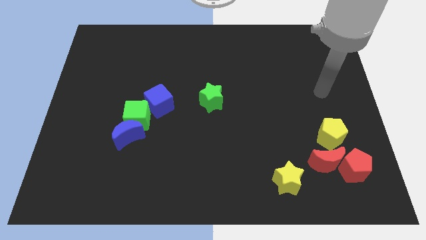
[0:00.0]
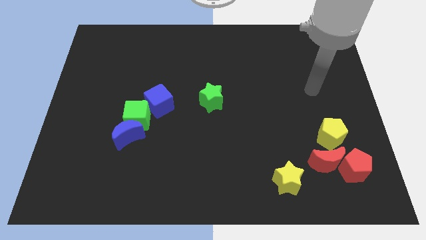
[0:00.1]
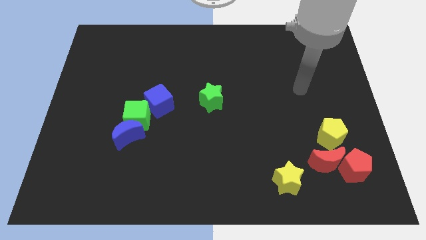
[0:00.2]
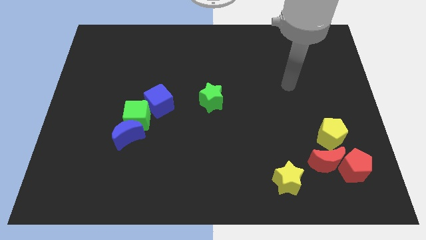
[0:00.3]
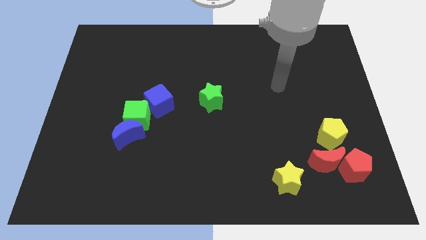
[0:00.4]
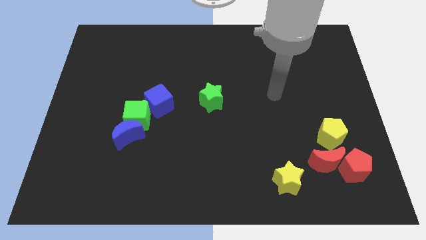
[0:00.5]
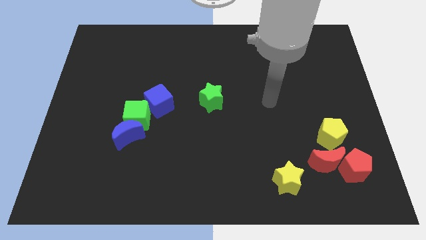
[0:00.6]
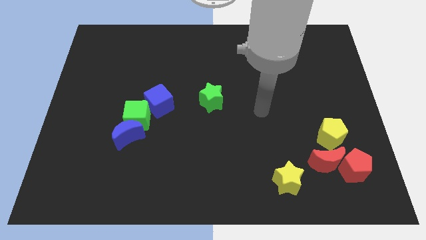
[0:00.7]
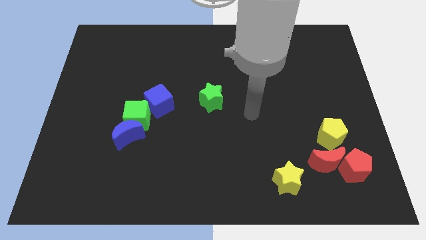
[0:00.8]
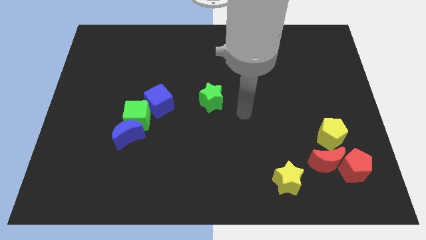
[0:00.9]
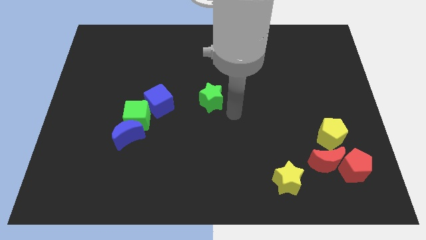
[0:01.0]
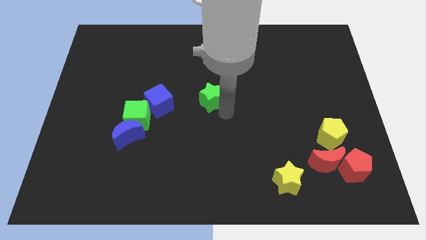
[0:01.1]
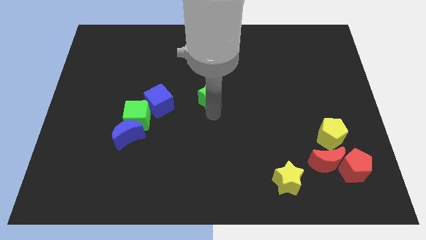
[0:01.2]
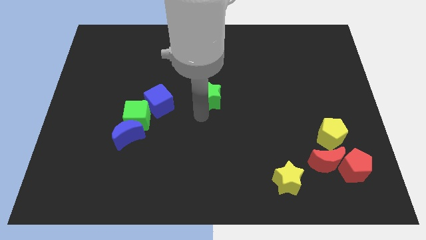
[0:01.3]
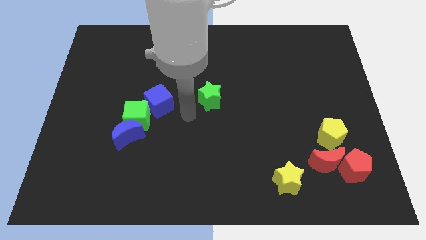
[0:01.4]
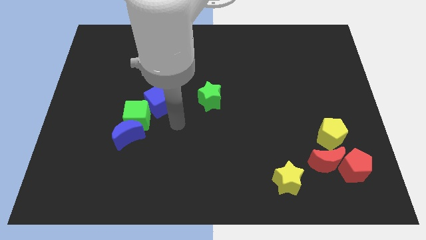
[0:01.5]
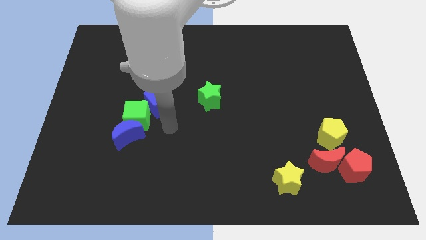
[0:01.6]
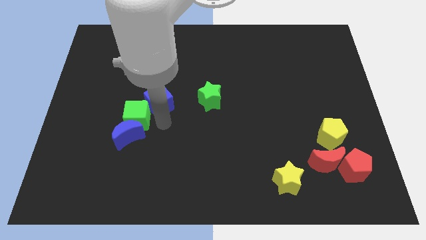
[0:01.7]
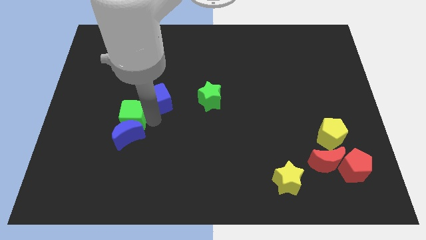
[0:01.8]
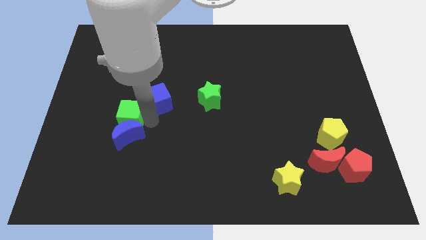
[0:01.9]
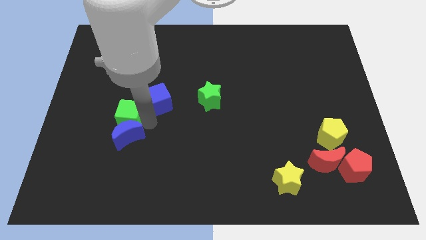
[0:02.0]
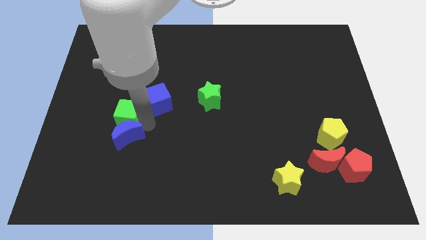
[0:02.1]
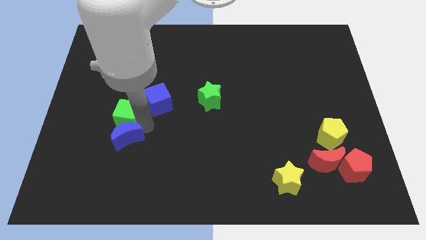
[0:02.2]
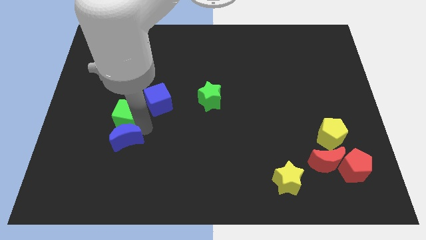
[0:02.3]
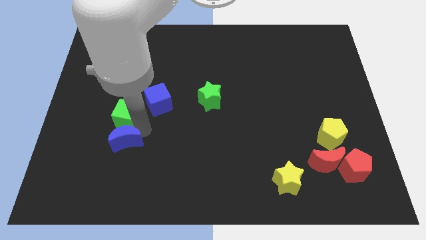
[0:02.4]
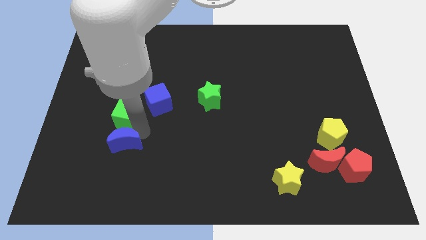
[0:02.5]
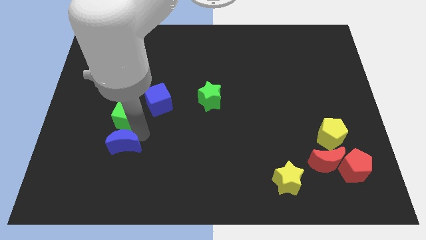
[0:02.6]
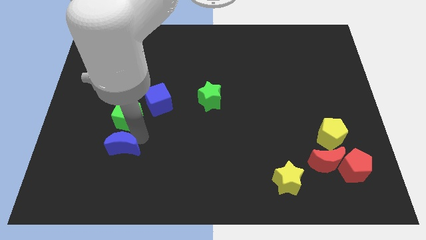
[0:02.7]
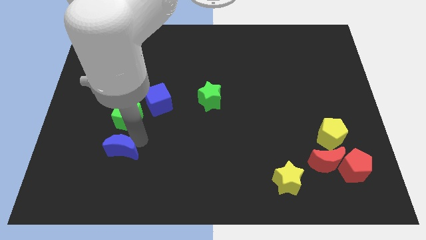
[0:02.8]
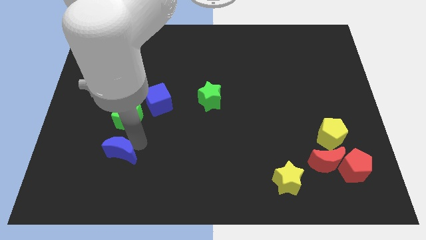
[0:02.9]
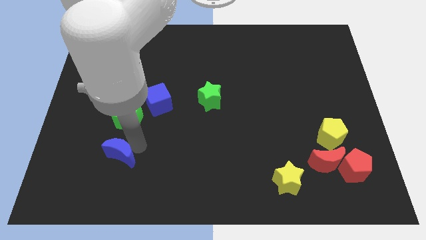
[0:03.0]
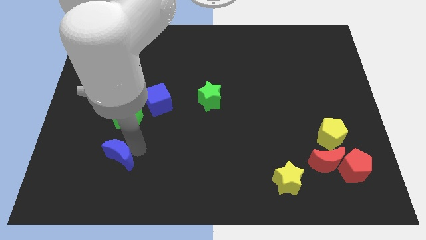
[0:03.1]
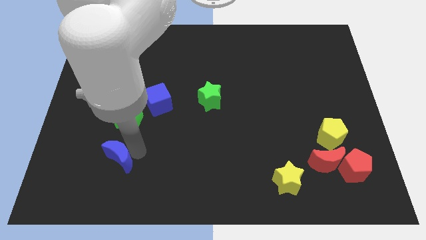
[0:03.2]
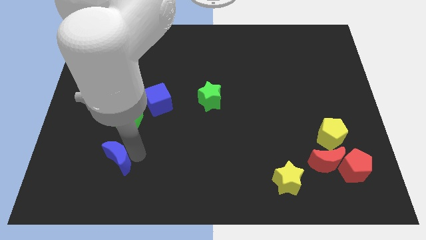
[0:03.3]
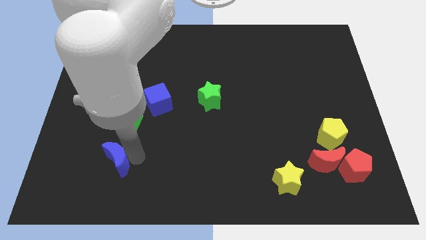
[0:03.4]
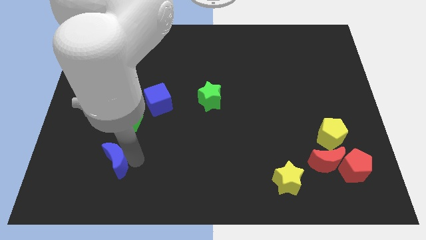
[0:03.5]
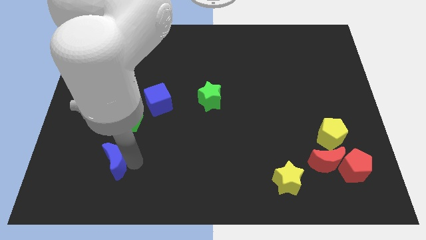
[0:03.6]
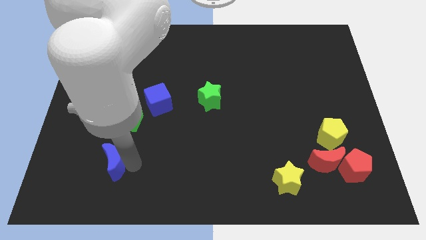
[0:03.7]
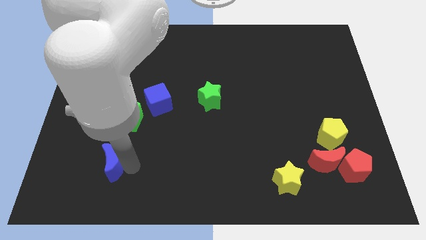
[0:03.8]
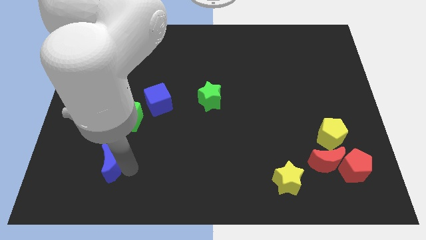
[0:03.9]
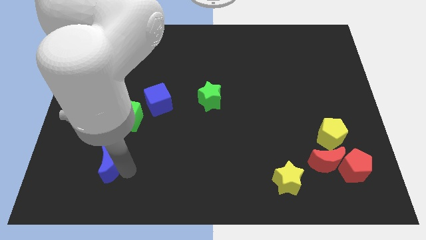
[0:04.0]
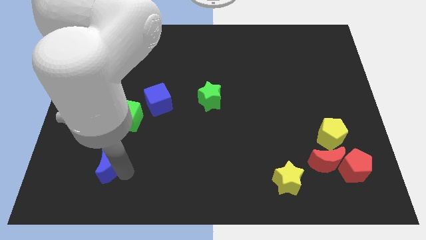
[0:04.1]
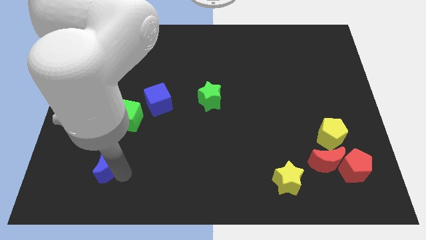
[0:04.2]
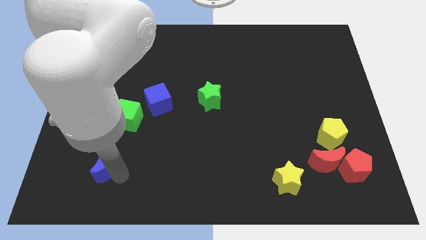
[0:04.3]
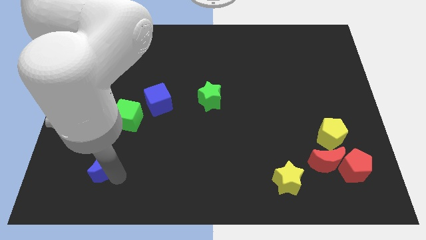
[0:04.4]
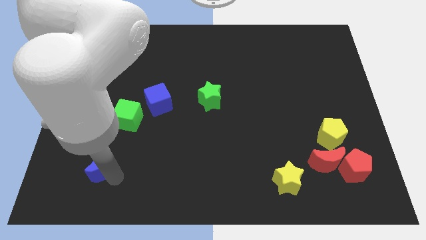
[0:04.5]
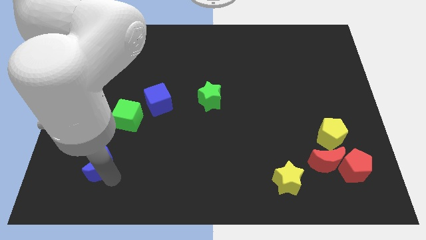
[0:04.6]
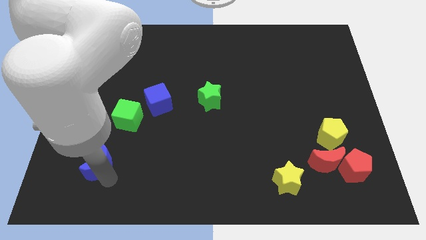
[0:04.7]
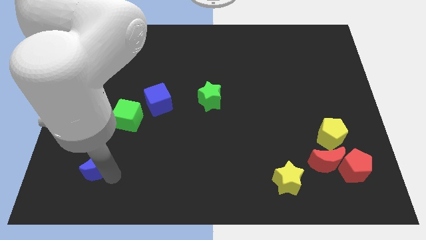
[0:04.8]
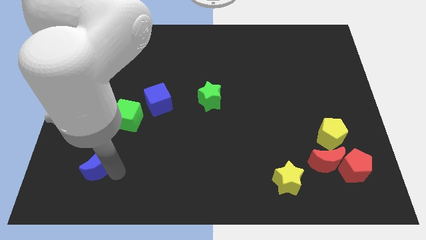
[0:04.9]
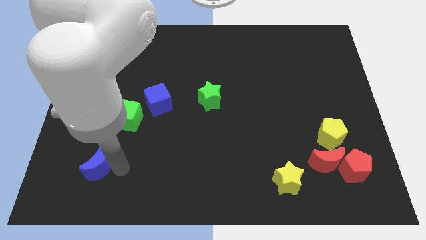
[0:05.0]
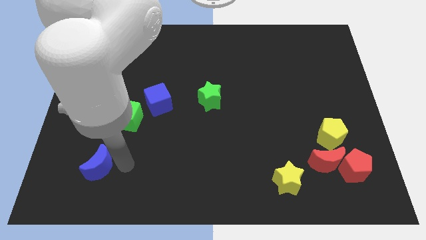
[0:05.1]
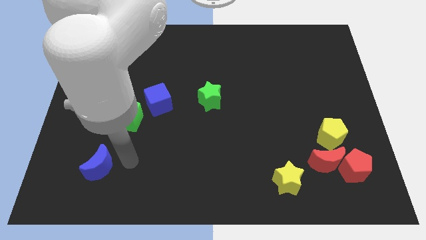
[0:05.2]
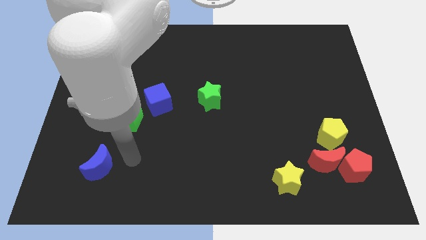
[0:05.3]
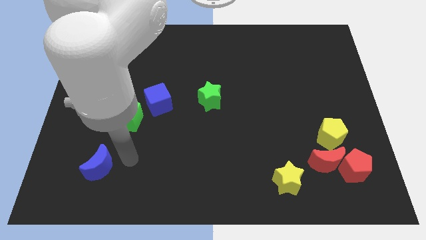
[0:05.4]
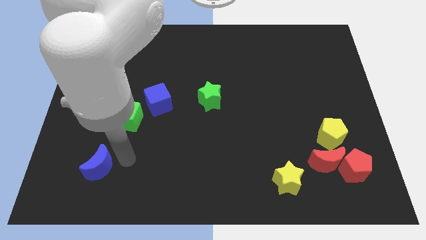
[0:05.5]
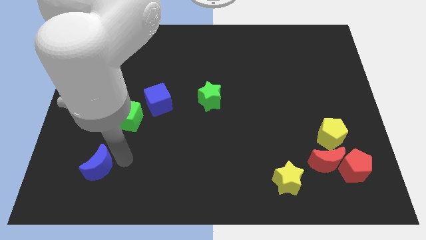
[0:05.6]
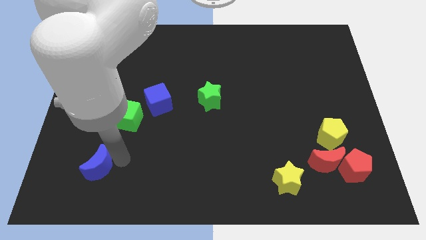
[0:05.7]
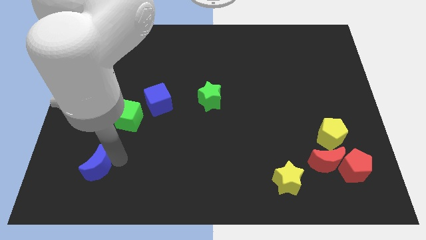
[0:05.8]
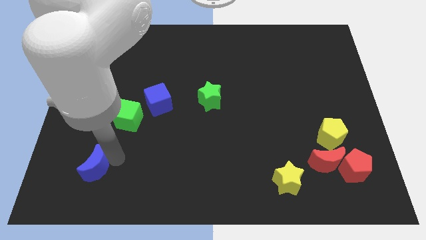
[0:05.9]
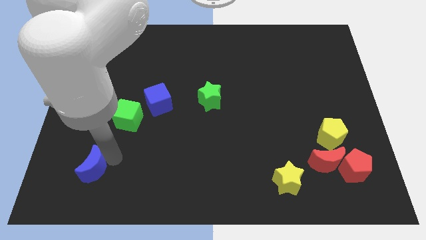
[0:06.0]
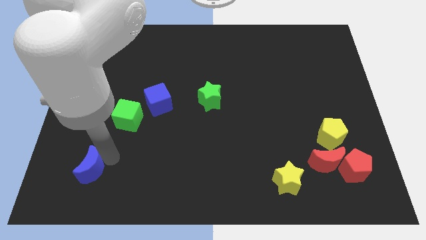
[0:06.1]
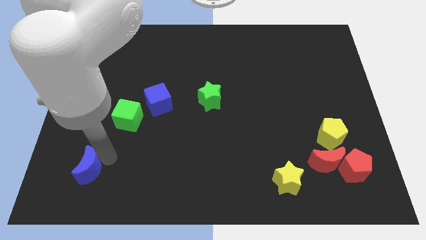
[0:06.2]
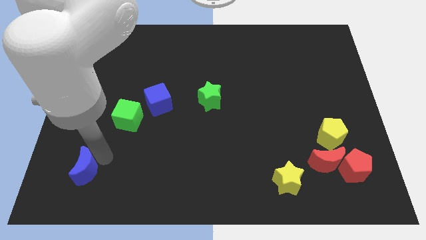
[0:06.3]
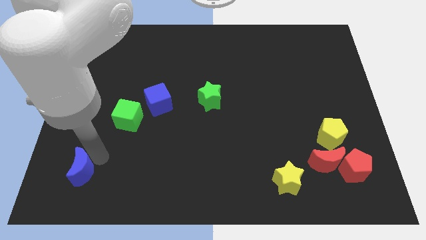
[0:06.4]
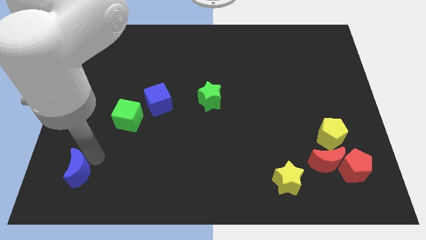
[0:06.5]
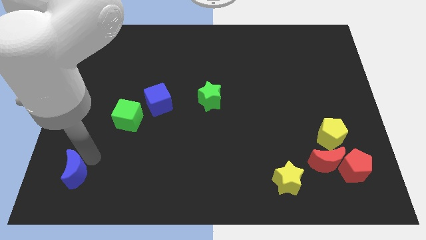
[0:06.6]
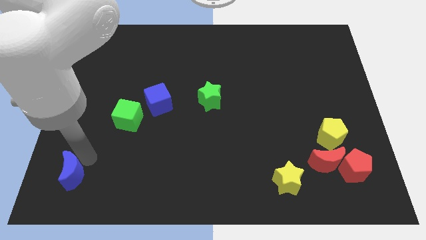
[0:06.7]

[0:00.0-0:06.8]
push the blue moon to the lower left corner

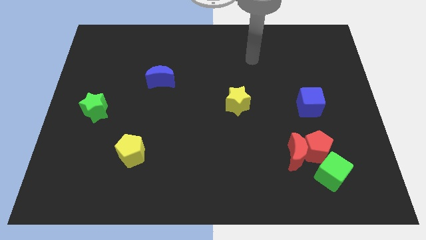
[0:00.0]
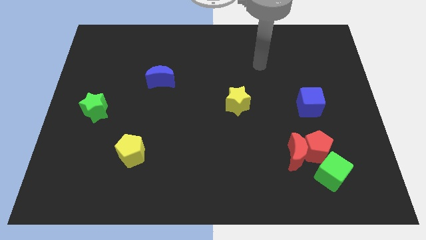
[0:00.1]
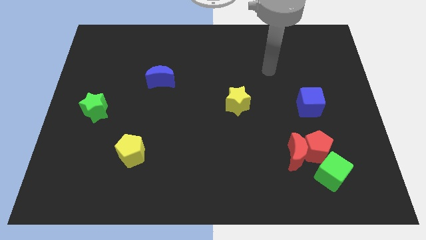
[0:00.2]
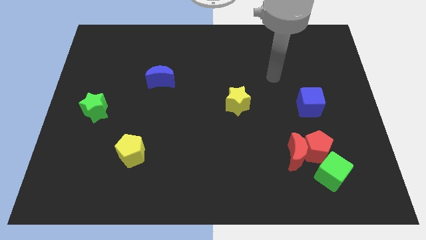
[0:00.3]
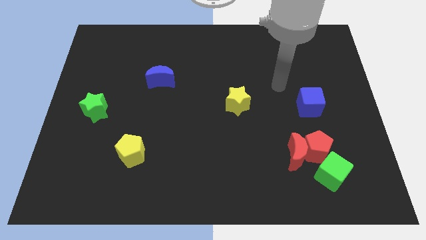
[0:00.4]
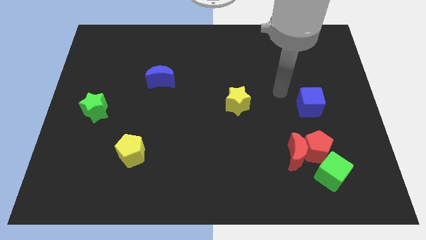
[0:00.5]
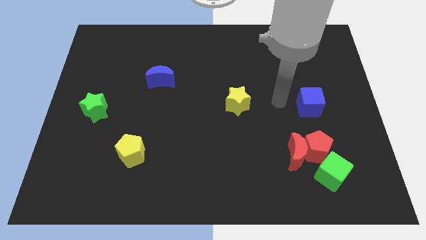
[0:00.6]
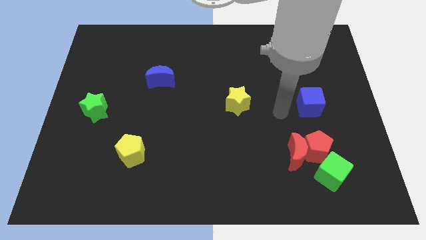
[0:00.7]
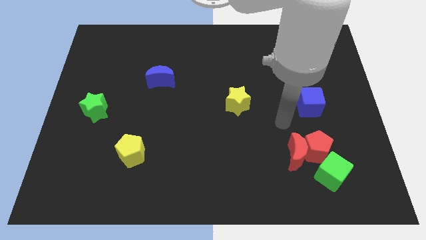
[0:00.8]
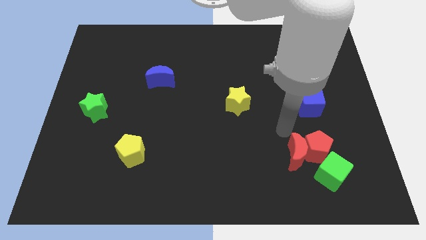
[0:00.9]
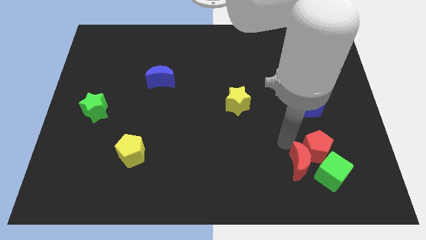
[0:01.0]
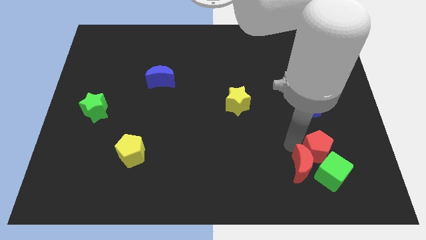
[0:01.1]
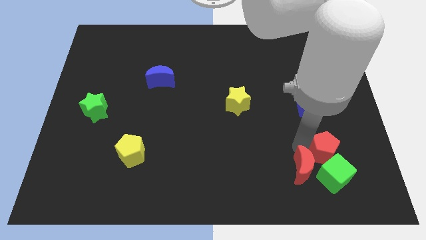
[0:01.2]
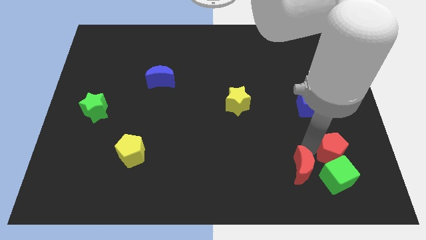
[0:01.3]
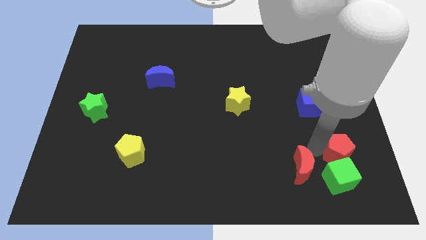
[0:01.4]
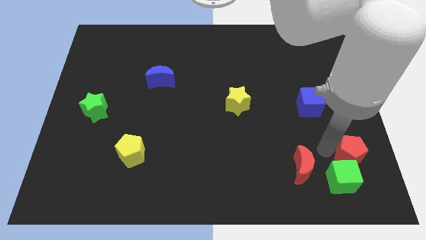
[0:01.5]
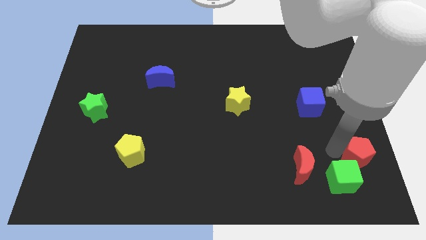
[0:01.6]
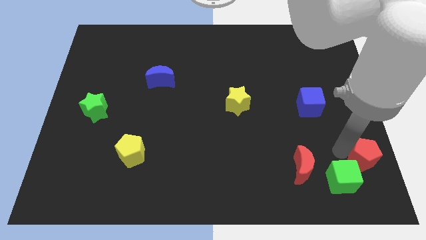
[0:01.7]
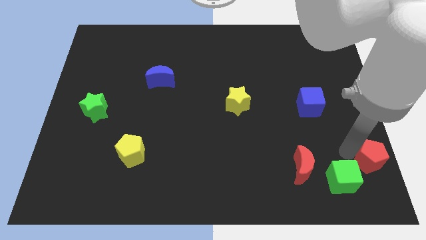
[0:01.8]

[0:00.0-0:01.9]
slide the red pentagon to the lower right corner
